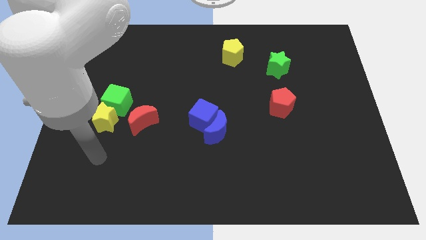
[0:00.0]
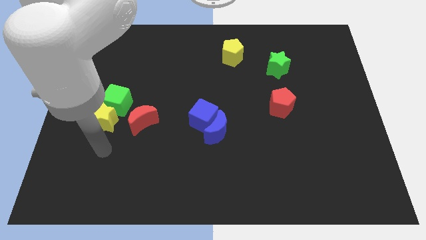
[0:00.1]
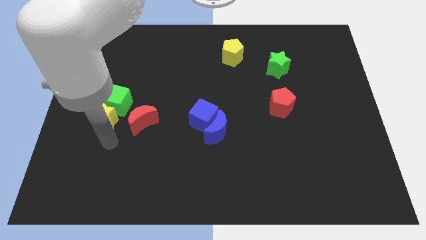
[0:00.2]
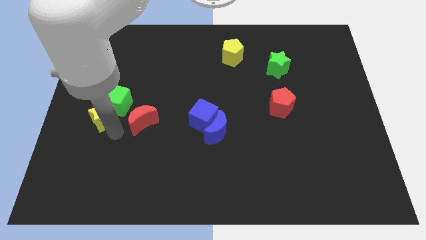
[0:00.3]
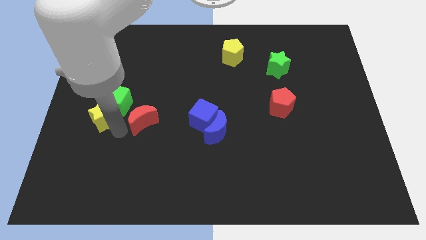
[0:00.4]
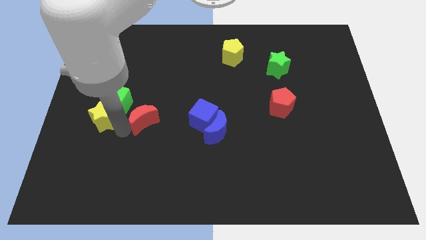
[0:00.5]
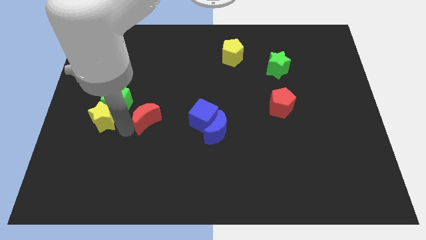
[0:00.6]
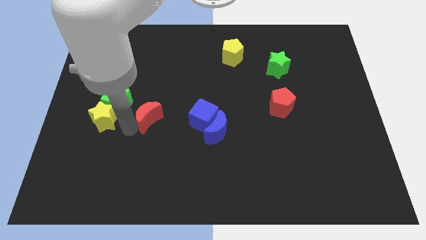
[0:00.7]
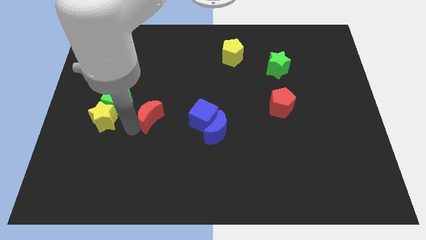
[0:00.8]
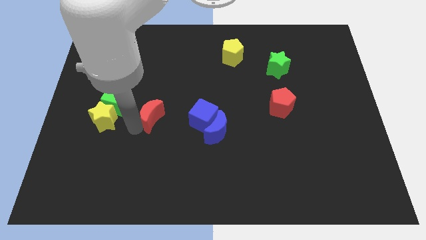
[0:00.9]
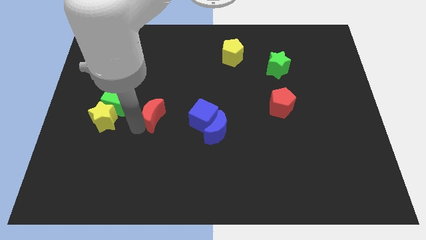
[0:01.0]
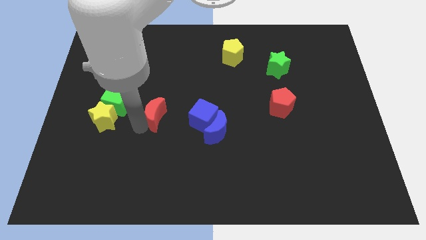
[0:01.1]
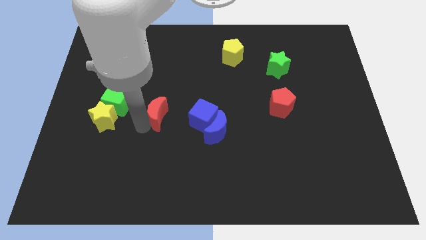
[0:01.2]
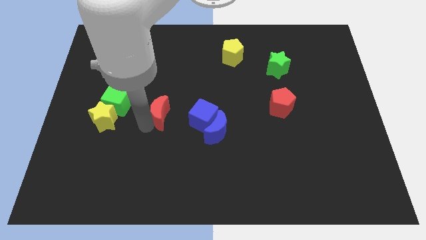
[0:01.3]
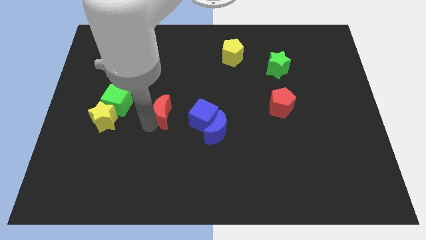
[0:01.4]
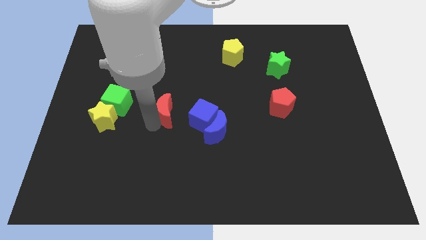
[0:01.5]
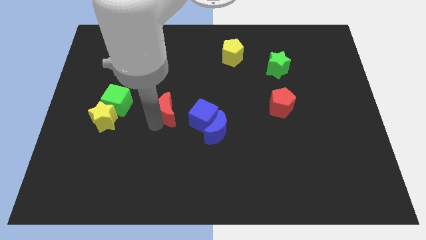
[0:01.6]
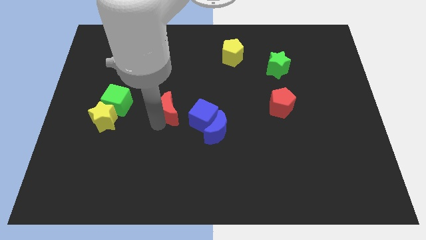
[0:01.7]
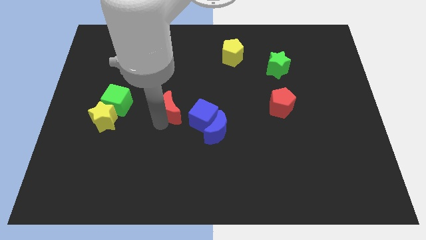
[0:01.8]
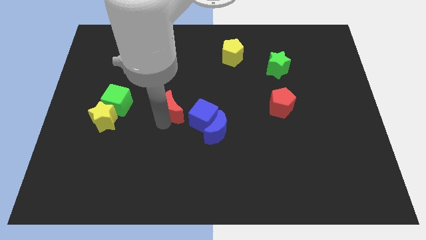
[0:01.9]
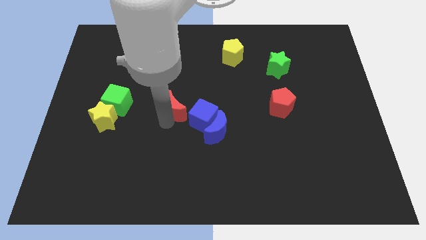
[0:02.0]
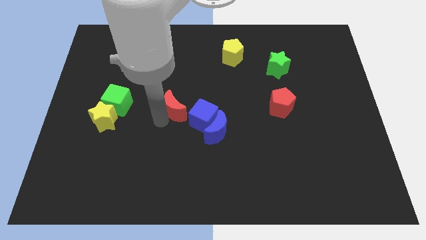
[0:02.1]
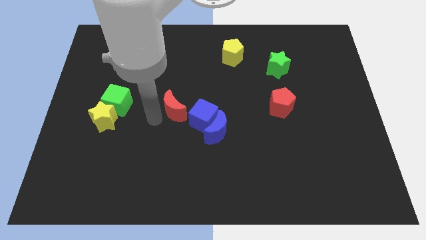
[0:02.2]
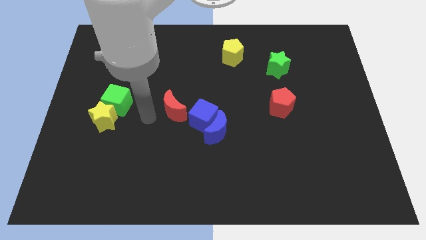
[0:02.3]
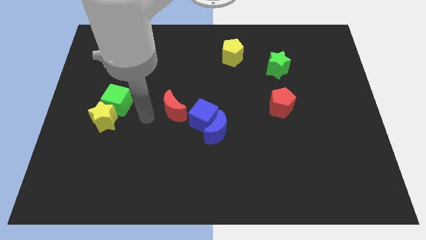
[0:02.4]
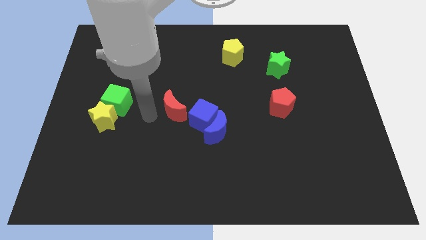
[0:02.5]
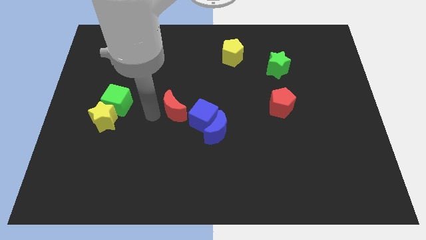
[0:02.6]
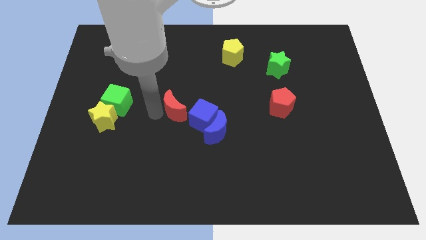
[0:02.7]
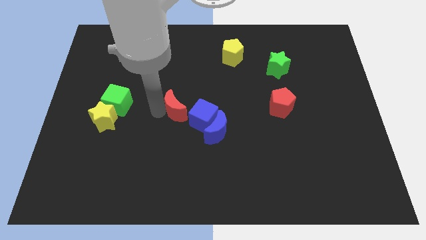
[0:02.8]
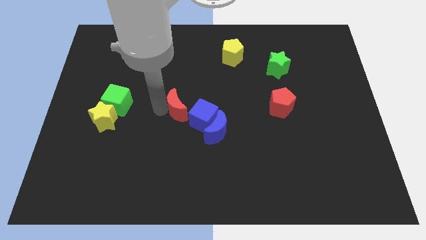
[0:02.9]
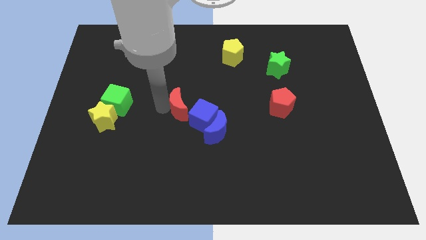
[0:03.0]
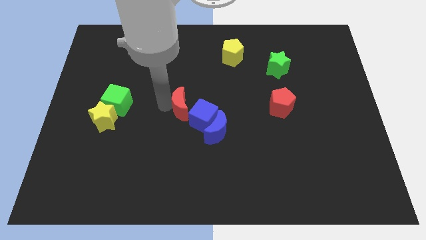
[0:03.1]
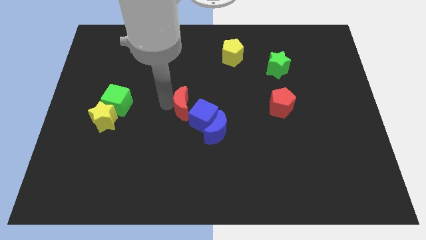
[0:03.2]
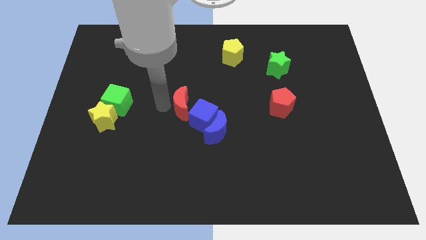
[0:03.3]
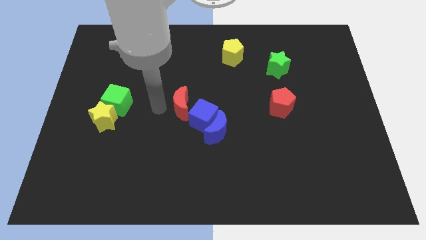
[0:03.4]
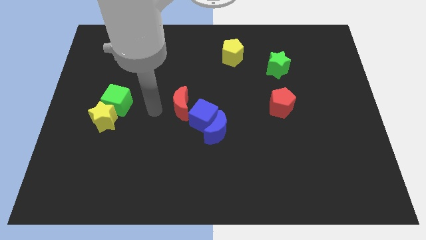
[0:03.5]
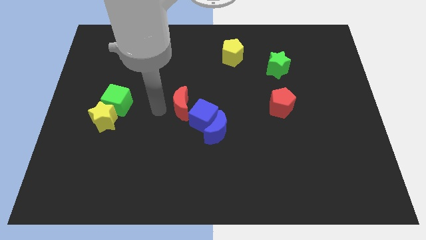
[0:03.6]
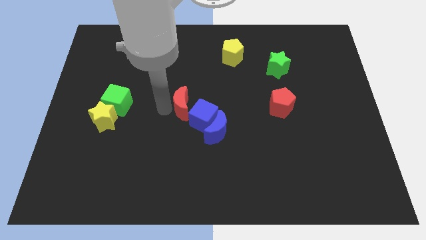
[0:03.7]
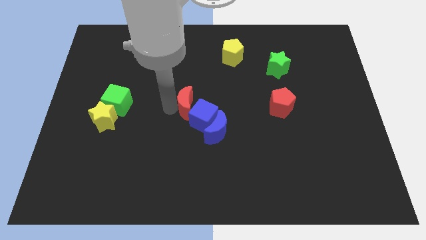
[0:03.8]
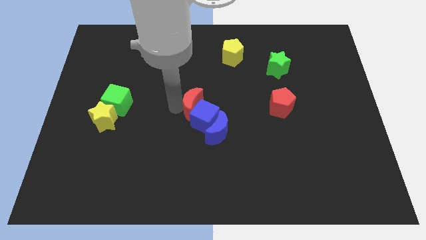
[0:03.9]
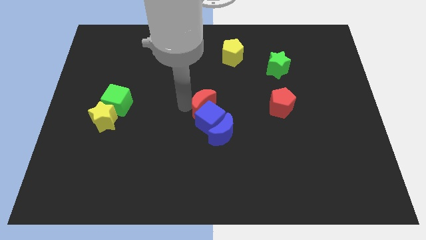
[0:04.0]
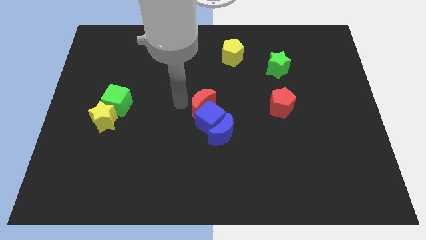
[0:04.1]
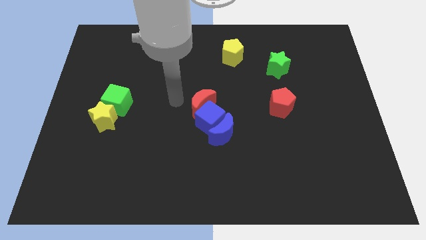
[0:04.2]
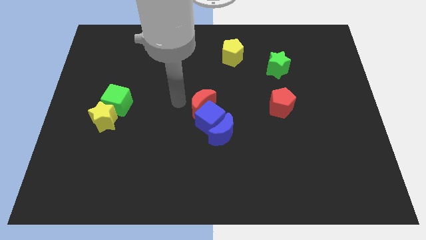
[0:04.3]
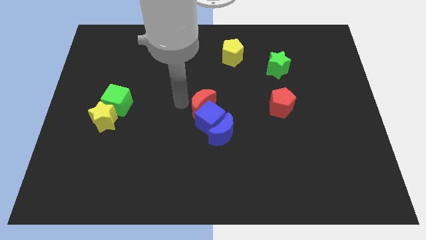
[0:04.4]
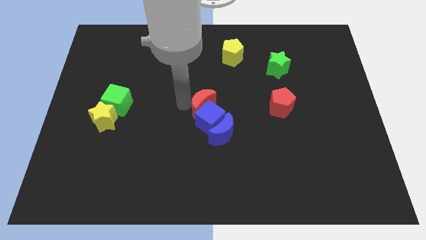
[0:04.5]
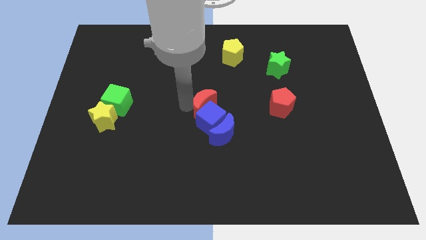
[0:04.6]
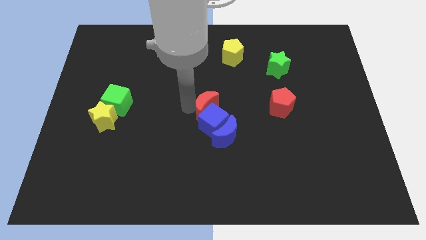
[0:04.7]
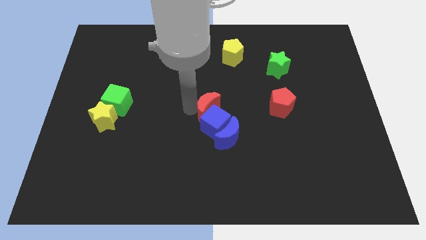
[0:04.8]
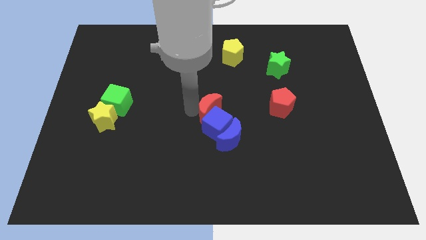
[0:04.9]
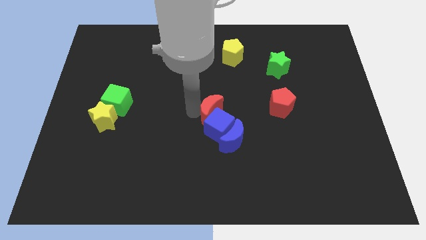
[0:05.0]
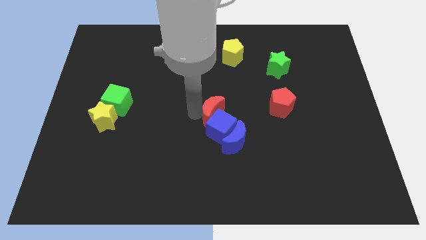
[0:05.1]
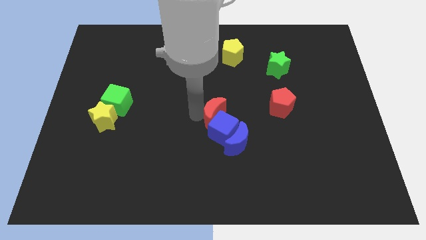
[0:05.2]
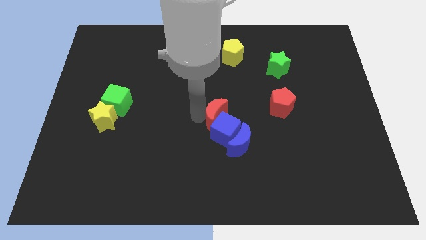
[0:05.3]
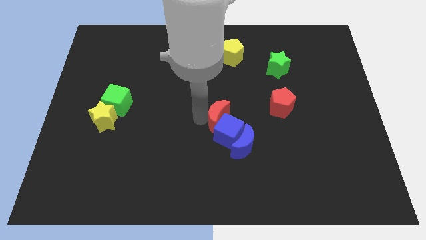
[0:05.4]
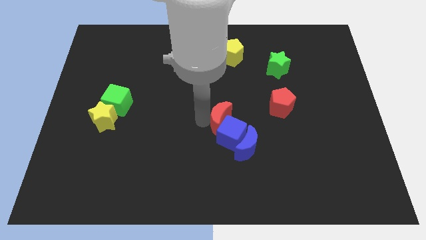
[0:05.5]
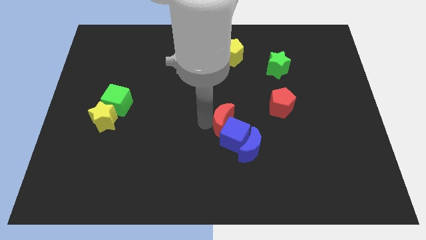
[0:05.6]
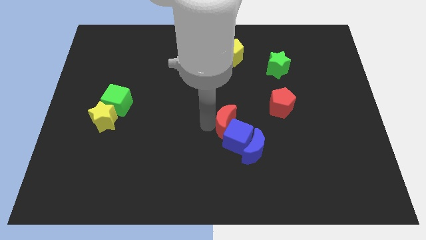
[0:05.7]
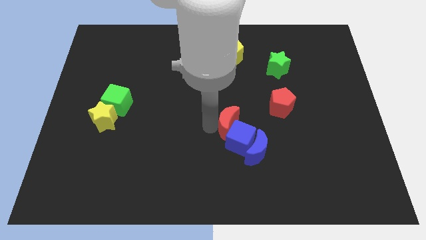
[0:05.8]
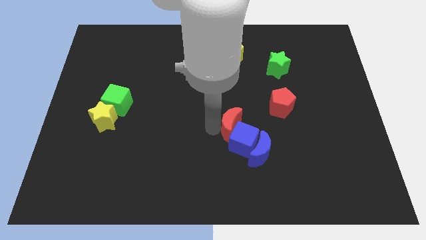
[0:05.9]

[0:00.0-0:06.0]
slide the red moon to the right

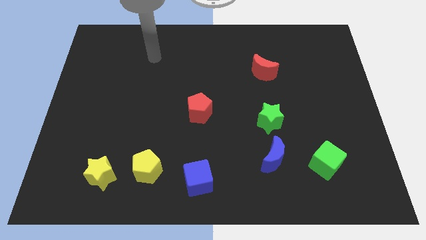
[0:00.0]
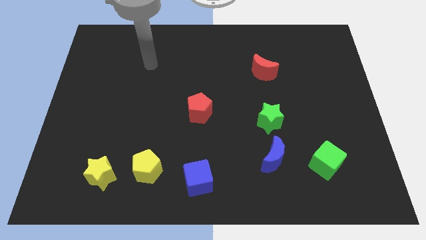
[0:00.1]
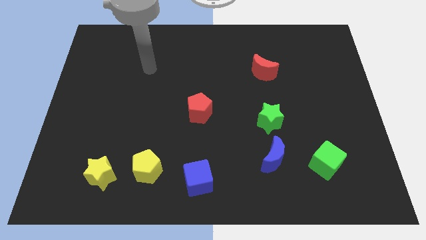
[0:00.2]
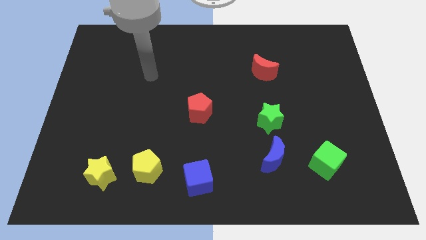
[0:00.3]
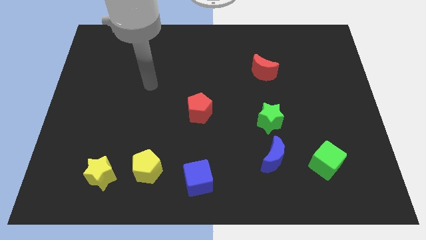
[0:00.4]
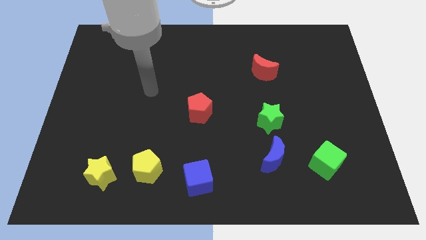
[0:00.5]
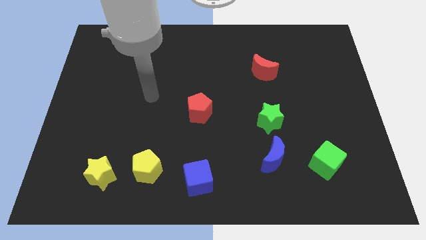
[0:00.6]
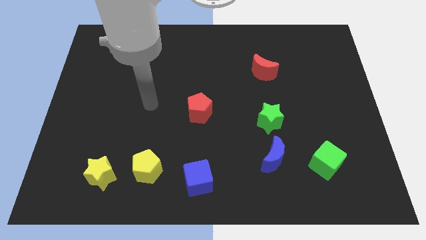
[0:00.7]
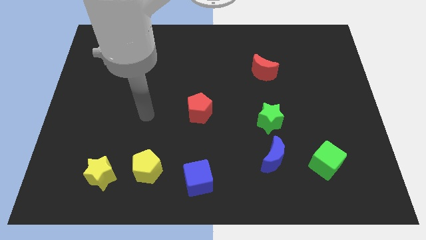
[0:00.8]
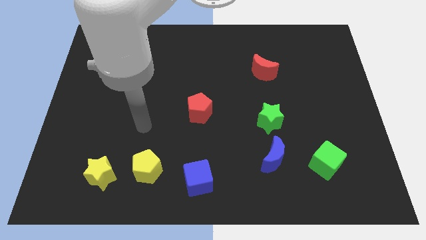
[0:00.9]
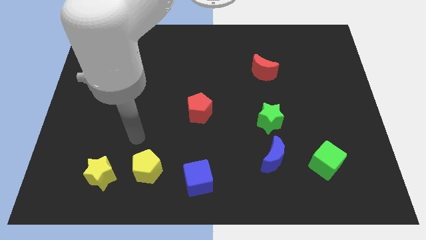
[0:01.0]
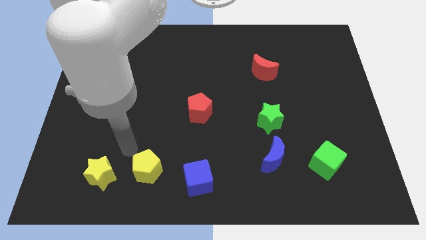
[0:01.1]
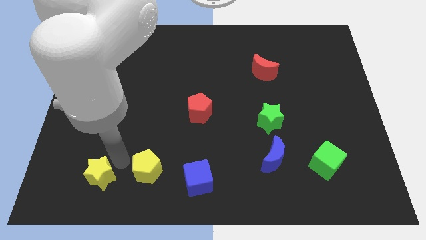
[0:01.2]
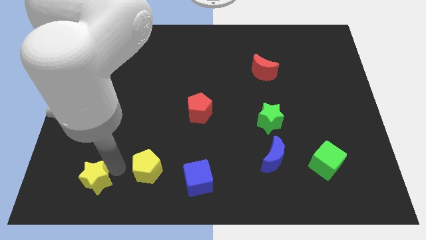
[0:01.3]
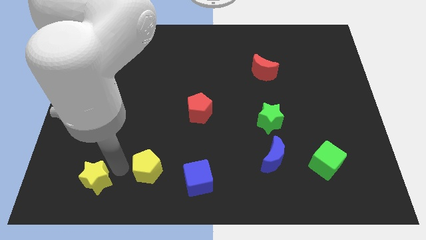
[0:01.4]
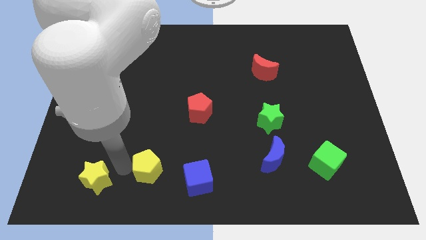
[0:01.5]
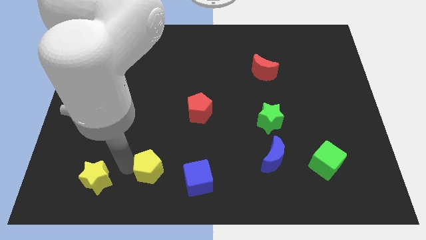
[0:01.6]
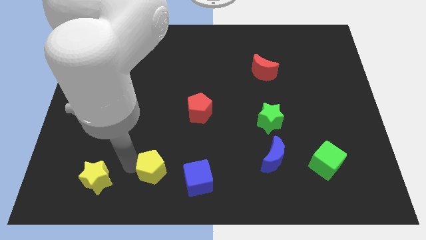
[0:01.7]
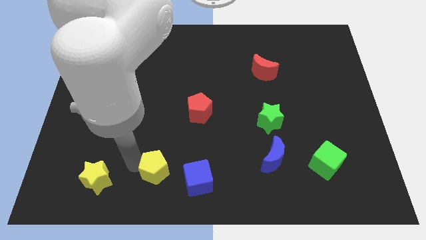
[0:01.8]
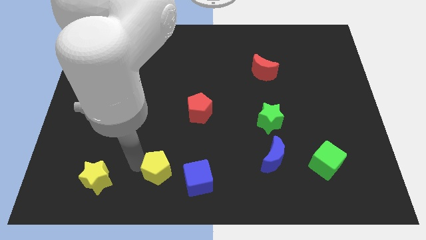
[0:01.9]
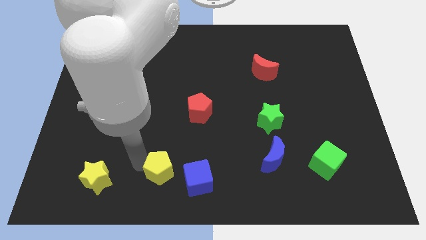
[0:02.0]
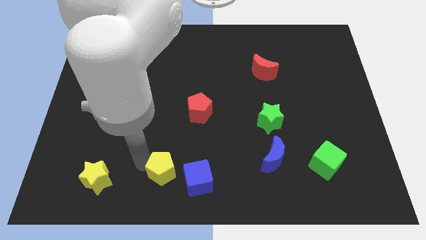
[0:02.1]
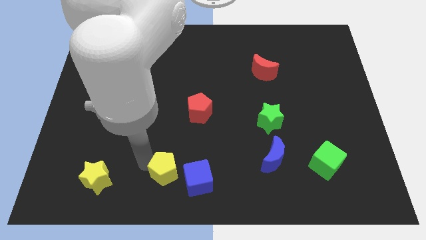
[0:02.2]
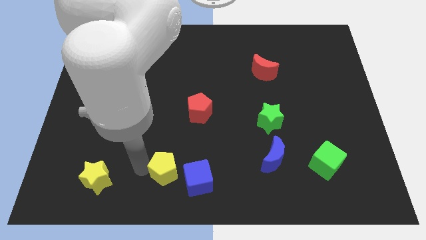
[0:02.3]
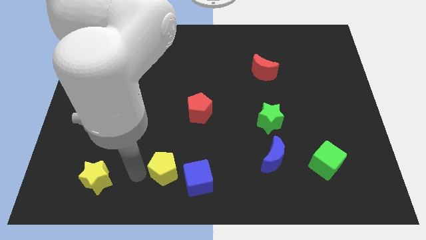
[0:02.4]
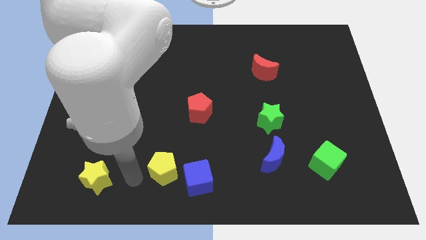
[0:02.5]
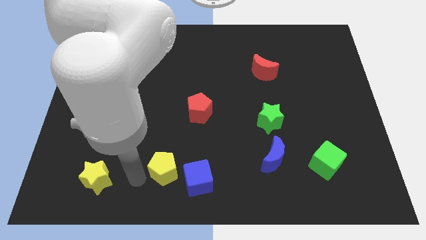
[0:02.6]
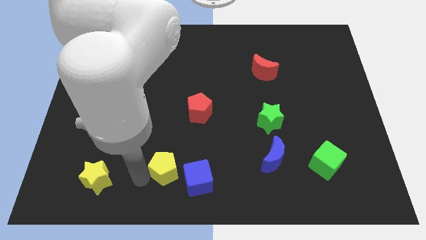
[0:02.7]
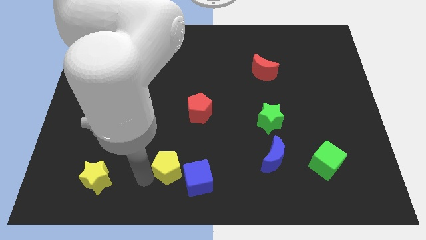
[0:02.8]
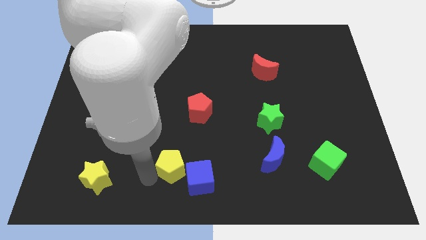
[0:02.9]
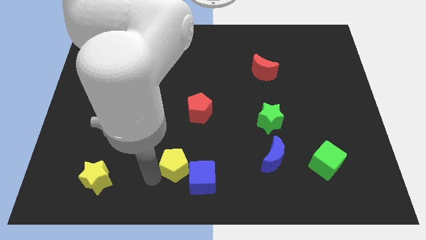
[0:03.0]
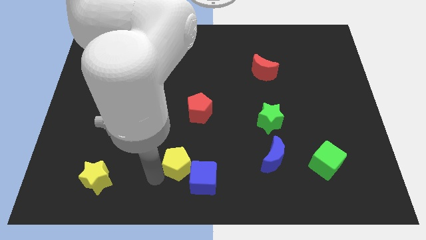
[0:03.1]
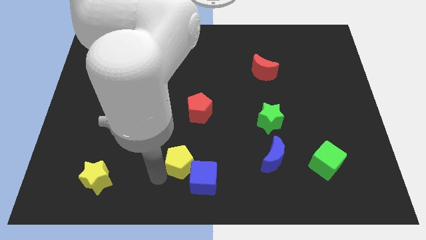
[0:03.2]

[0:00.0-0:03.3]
move the yellow pentagon right a bit
